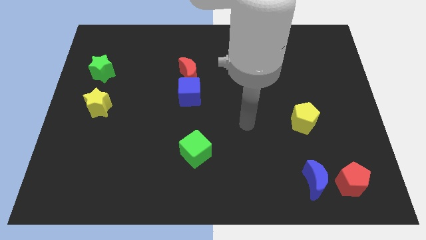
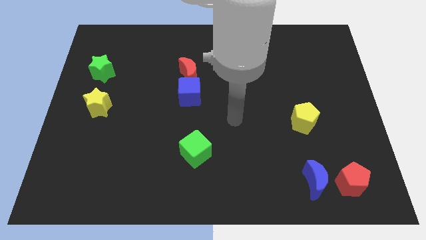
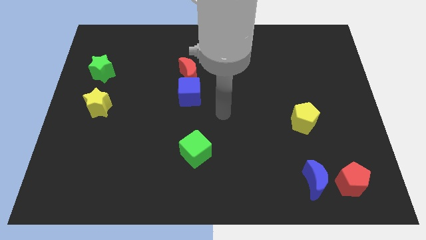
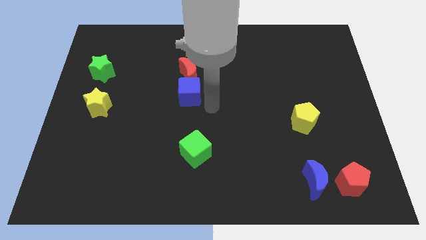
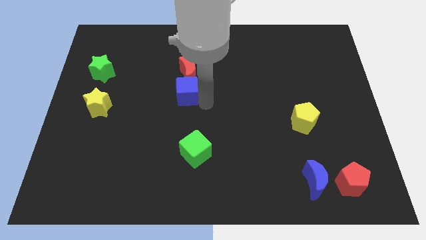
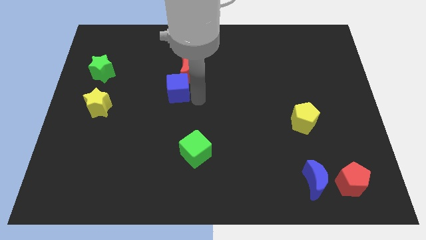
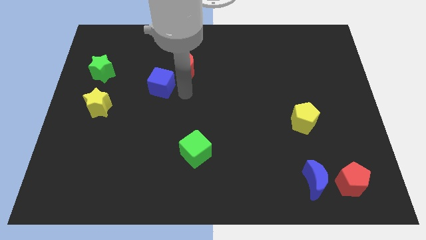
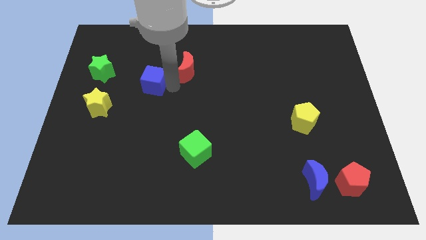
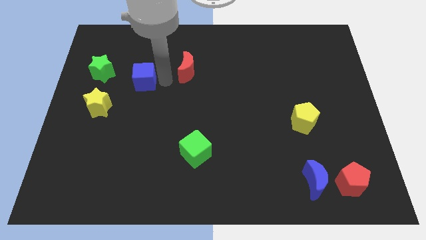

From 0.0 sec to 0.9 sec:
pull the red moon apart from the blue cube

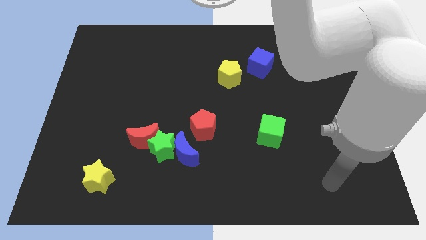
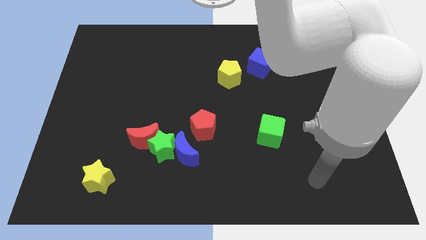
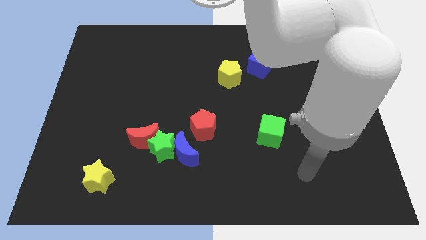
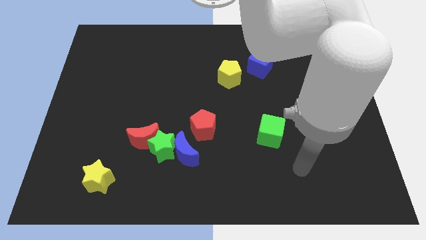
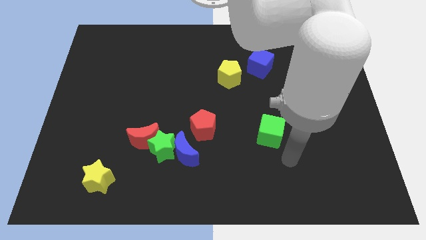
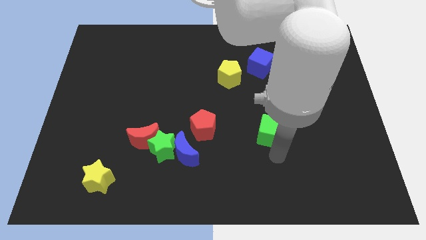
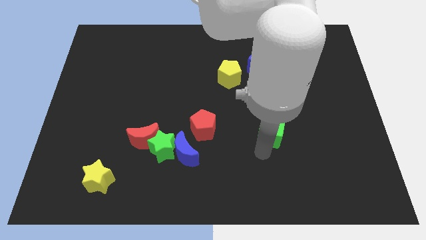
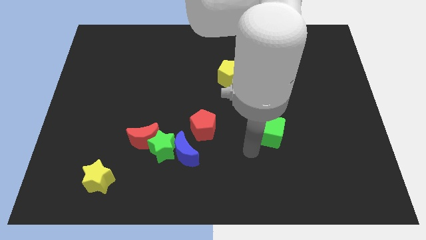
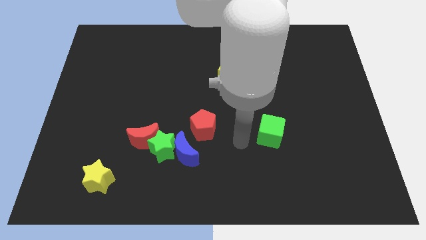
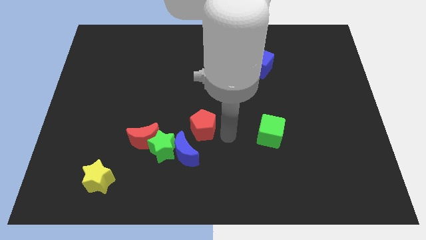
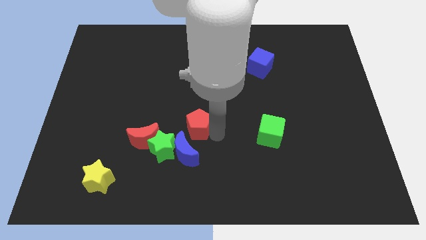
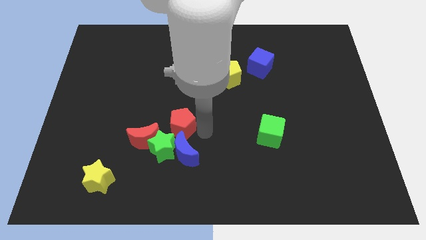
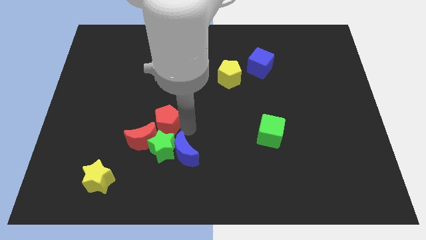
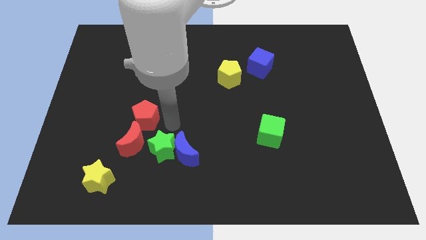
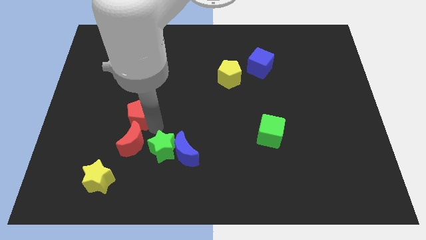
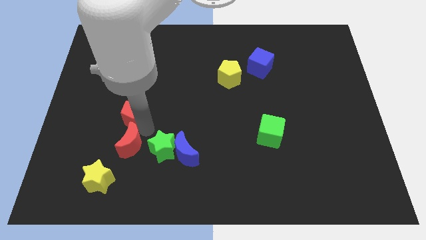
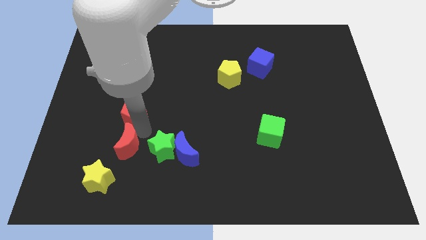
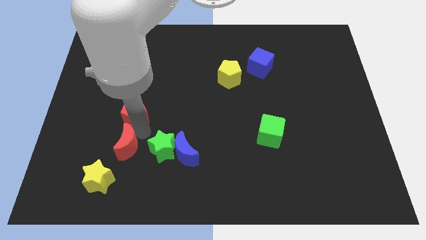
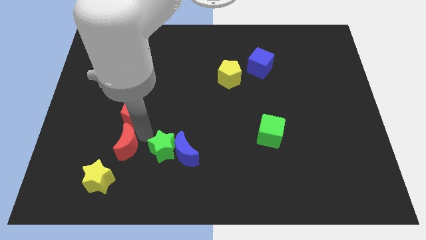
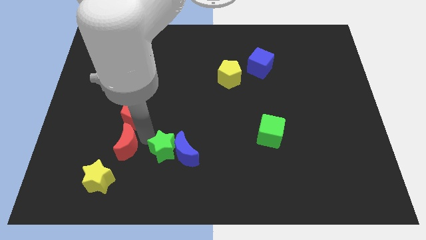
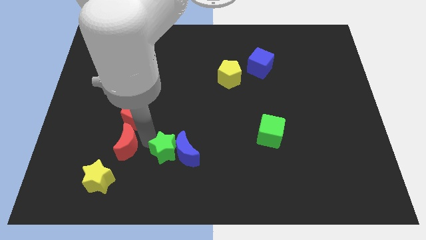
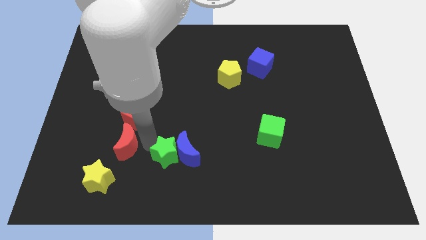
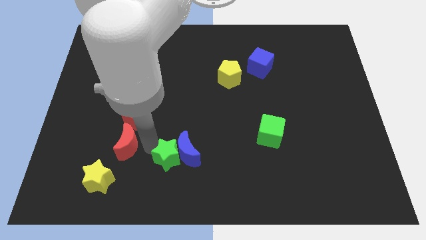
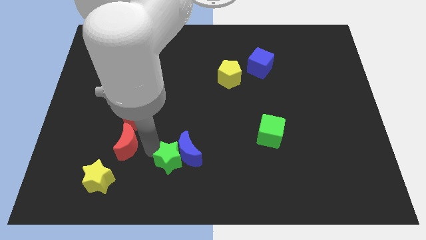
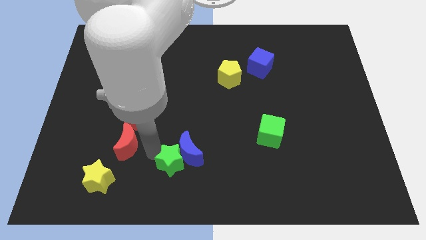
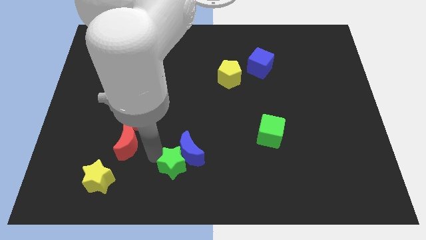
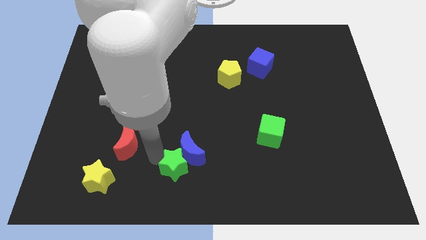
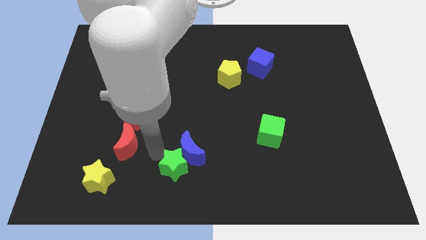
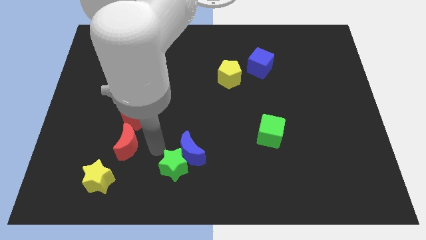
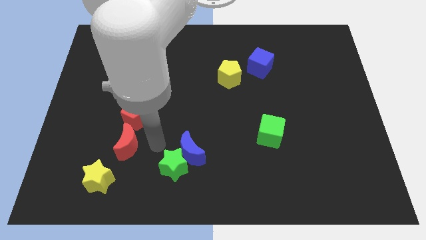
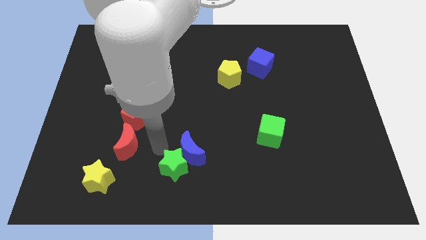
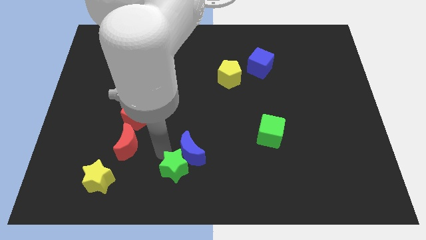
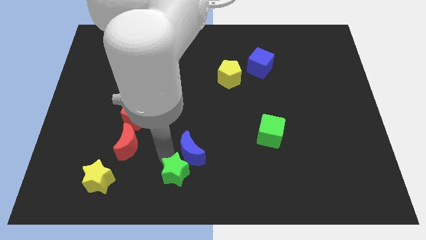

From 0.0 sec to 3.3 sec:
separate the green star from the clump

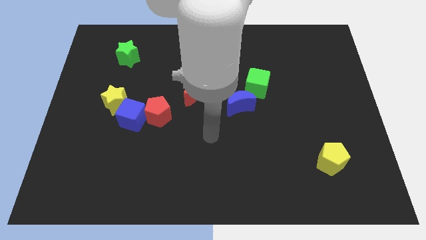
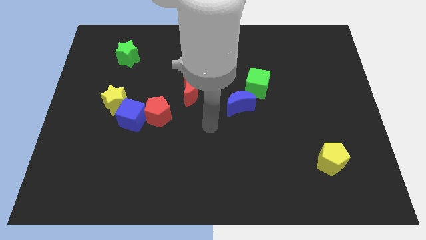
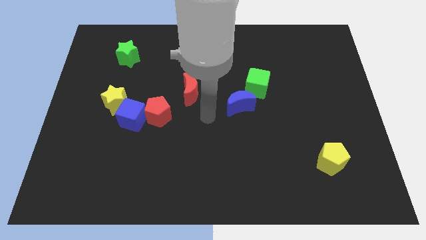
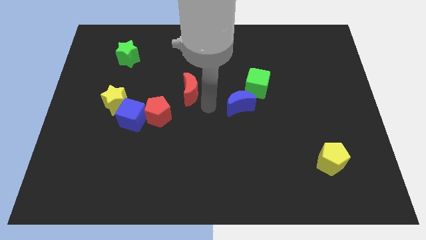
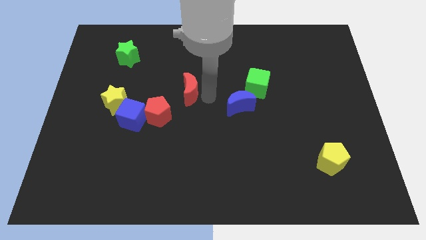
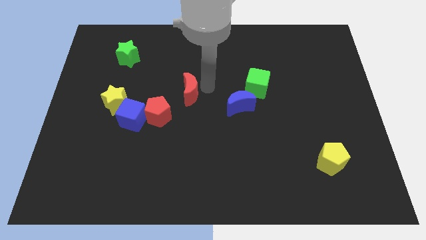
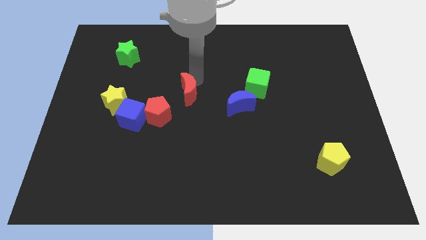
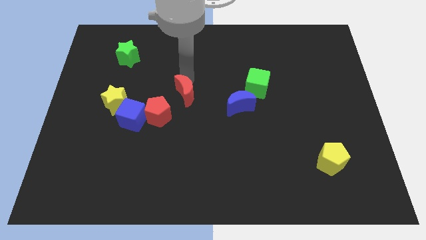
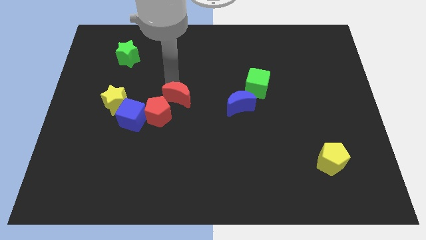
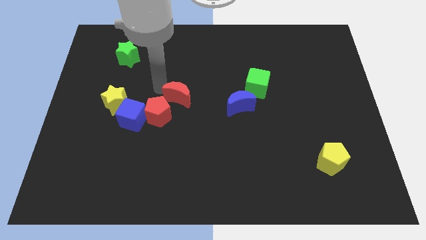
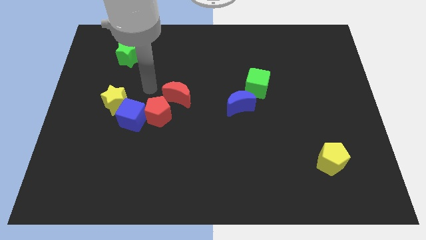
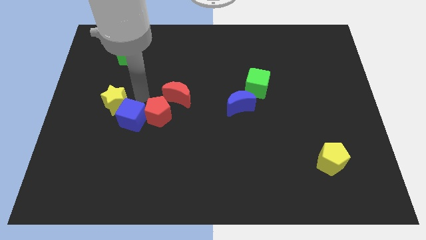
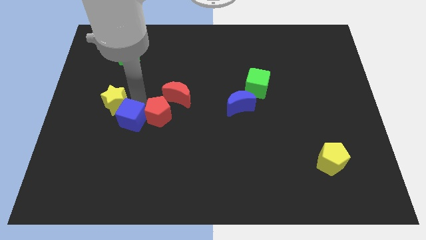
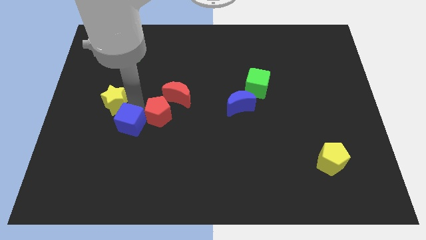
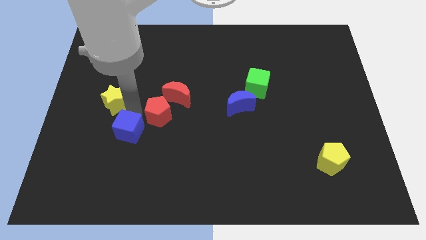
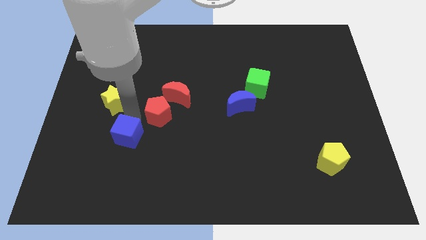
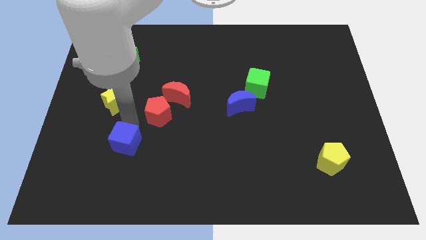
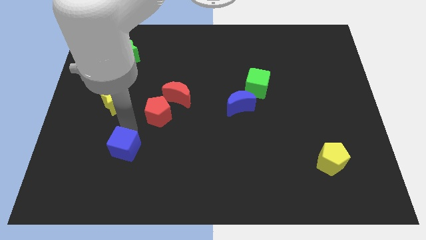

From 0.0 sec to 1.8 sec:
move the blue cube away from the red pentagon and yellow star

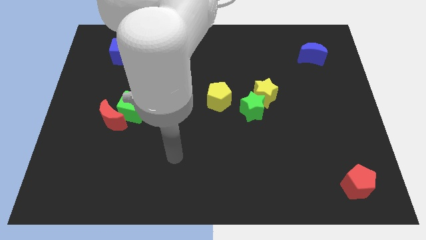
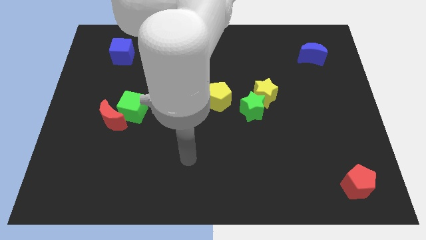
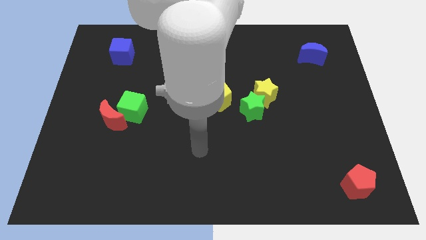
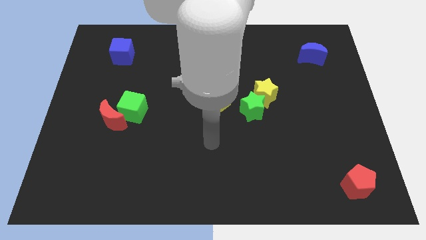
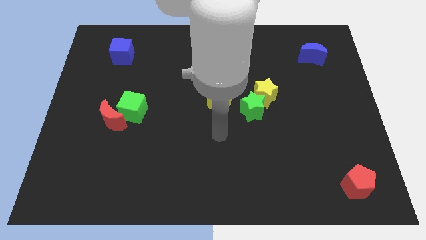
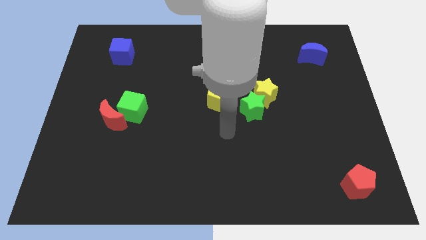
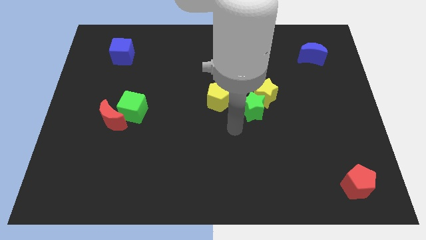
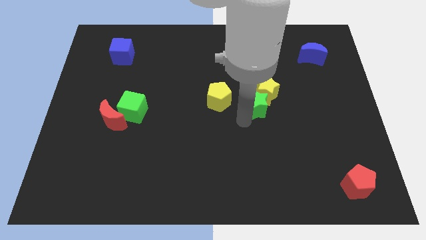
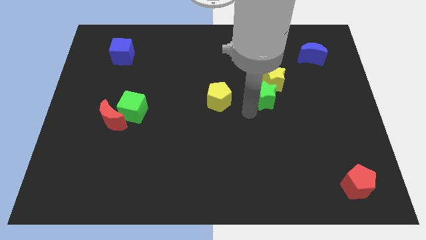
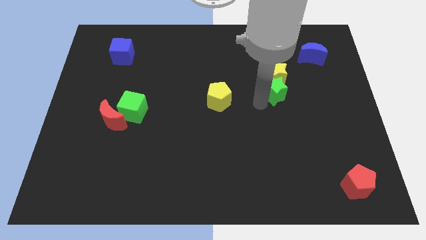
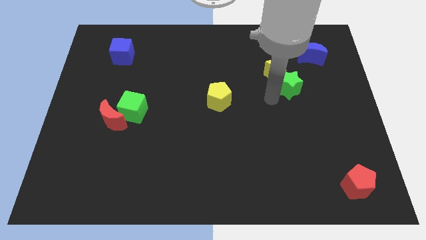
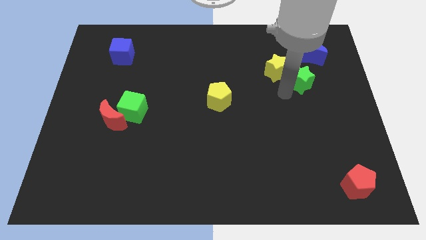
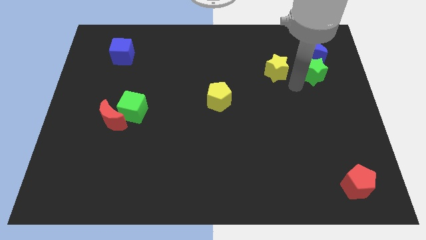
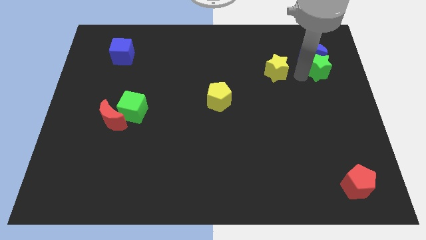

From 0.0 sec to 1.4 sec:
separate the yellow star from the green star

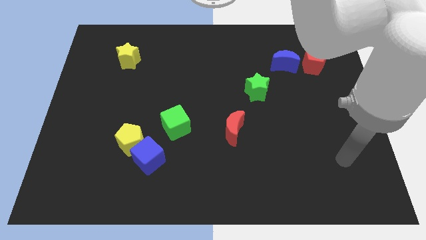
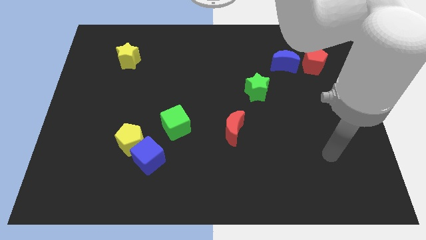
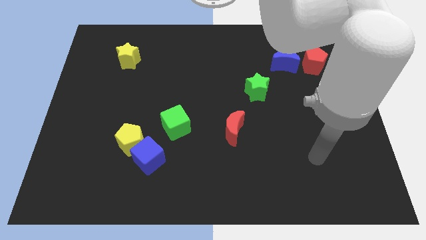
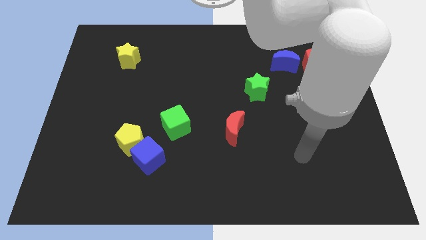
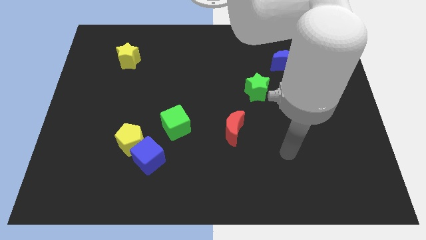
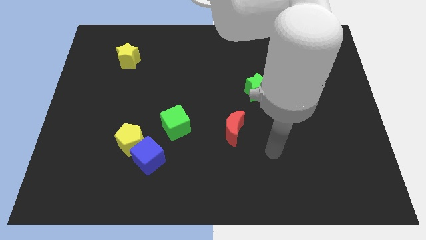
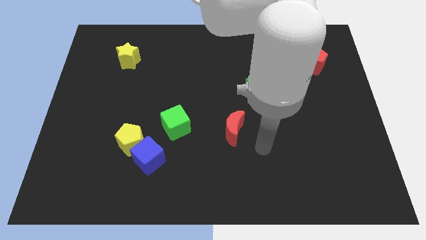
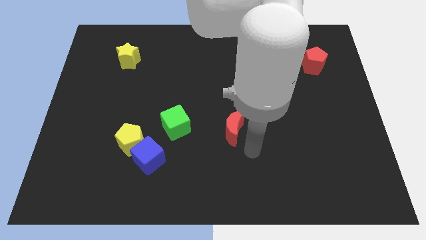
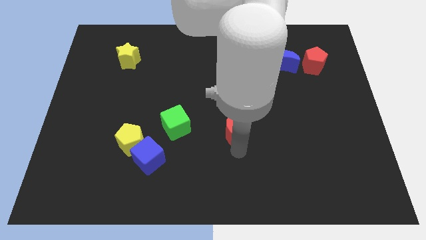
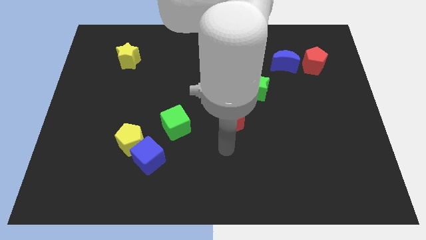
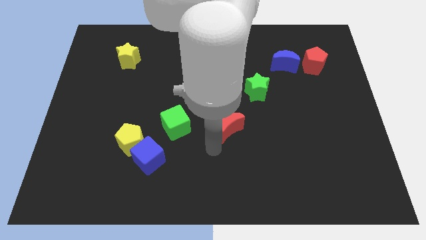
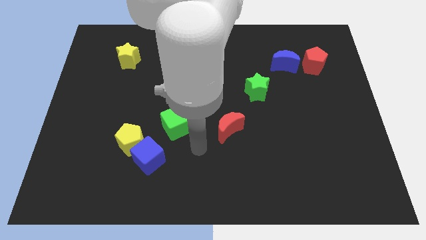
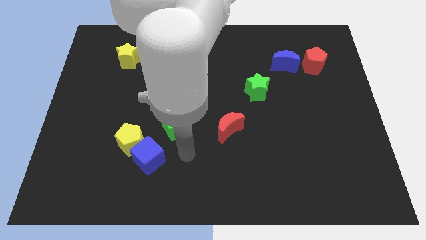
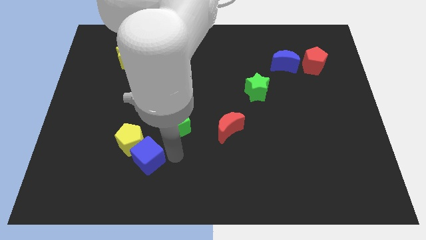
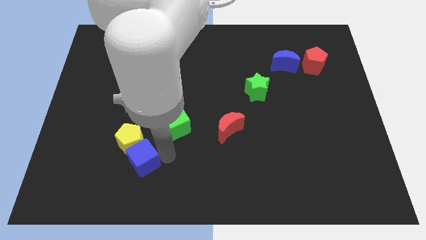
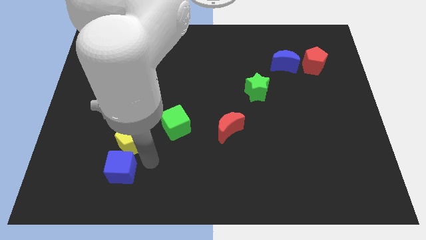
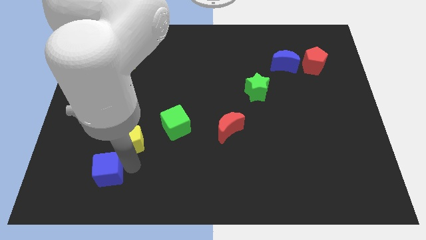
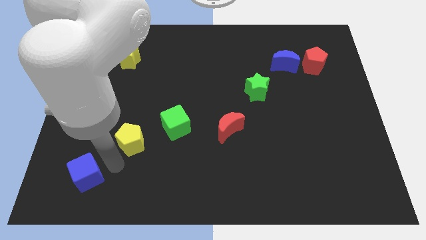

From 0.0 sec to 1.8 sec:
separate the yellow pentagon from the blue cube

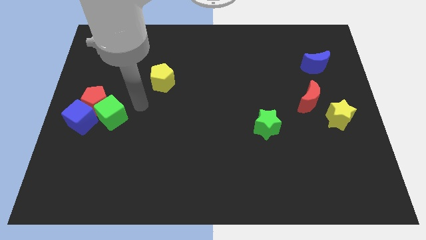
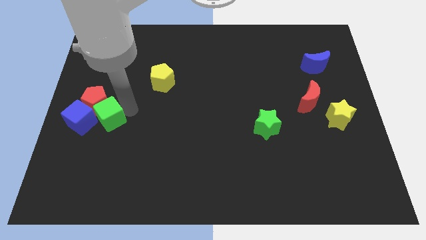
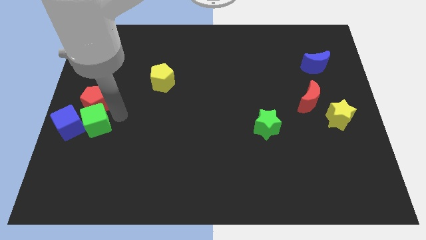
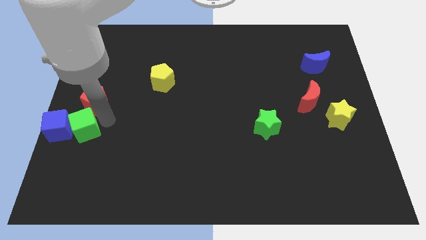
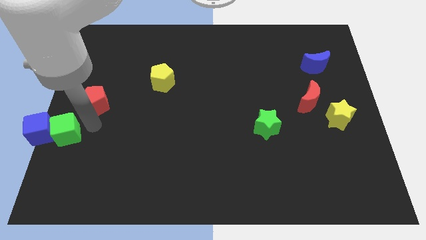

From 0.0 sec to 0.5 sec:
move the red pentagon away from the green cube and blue cube
